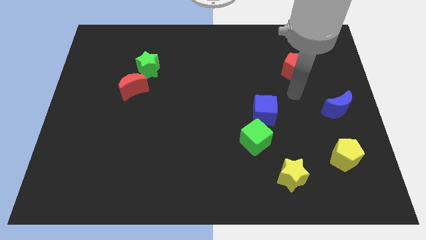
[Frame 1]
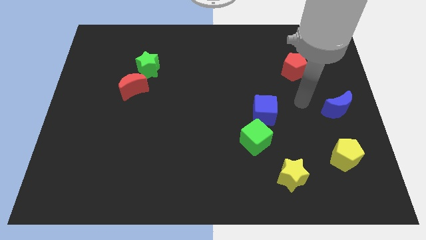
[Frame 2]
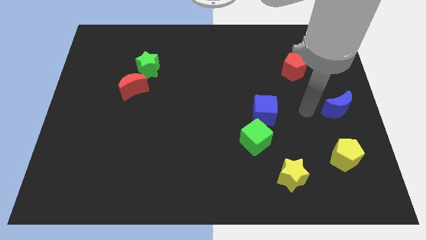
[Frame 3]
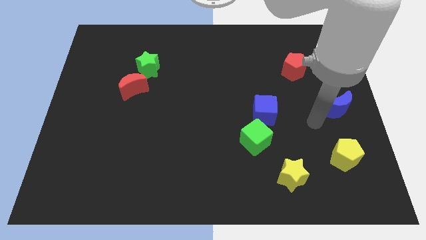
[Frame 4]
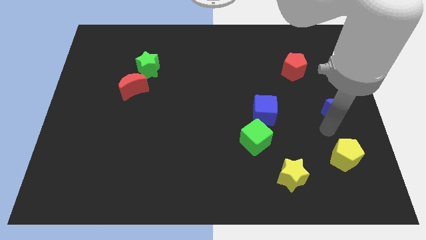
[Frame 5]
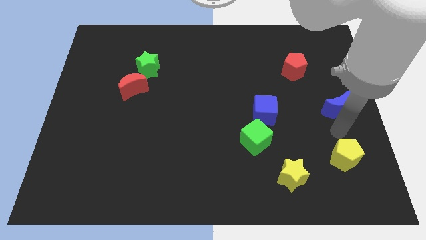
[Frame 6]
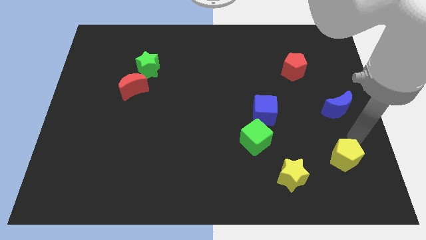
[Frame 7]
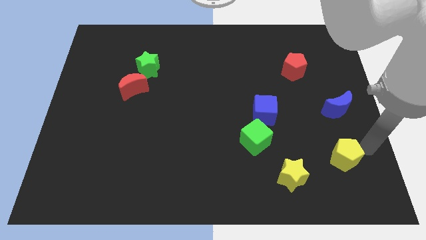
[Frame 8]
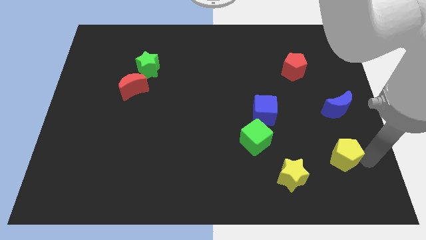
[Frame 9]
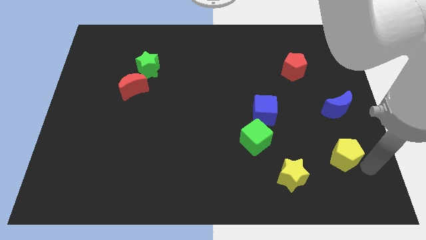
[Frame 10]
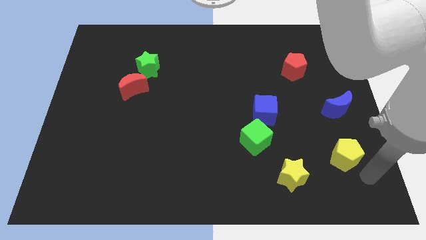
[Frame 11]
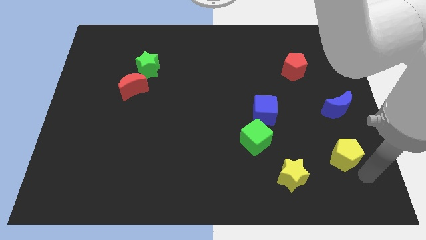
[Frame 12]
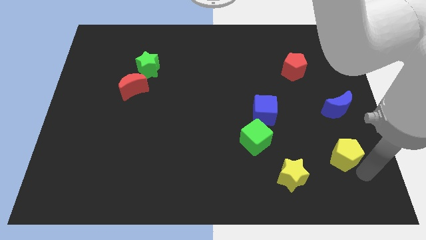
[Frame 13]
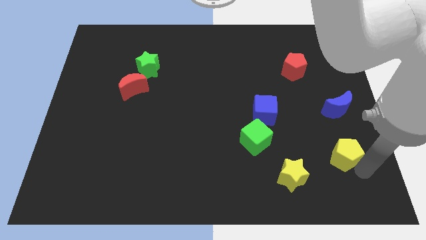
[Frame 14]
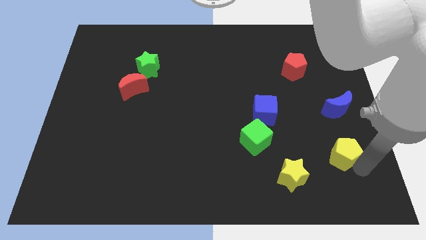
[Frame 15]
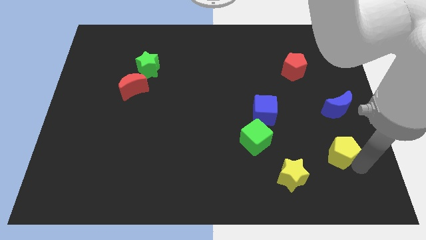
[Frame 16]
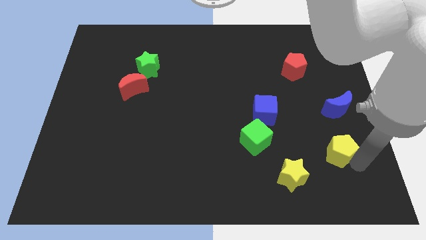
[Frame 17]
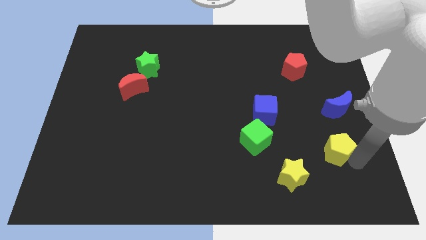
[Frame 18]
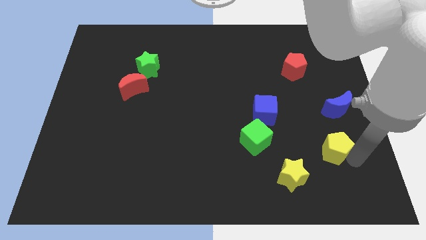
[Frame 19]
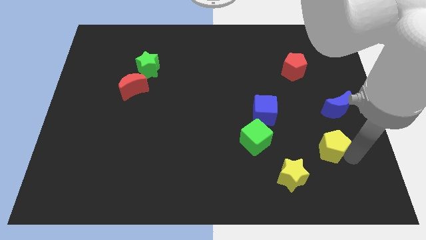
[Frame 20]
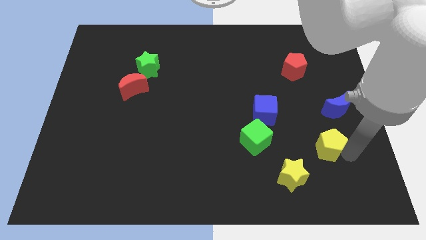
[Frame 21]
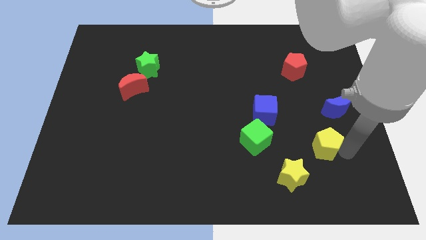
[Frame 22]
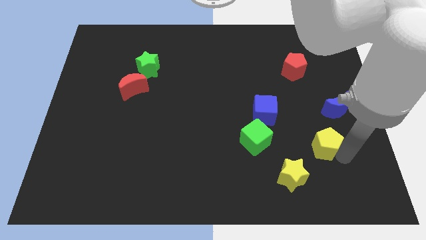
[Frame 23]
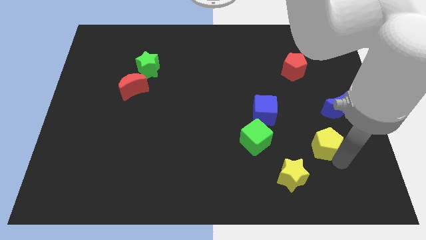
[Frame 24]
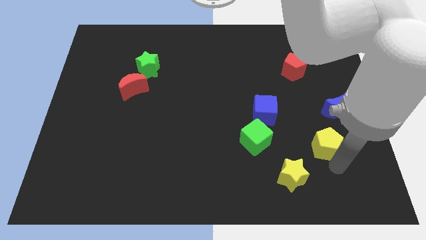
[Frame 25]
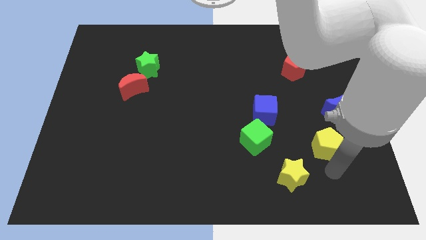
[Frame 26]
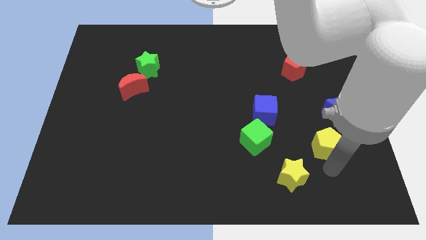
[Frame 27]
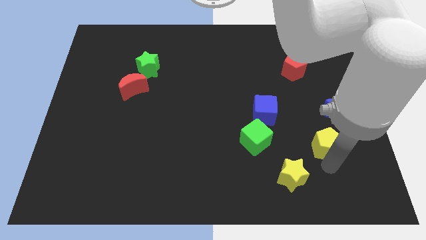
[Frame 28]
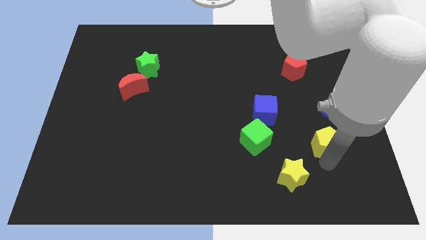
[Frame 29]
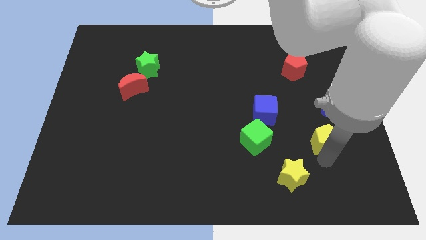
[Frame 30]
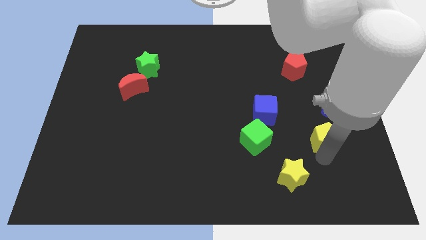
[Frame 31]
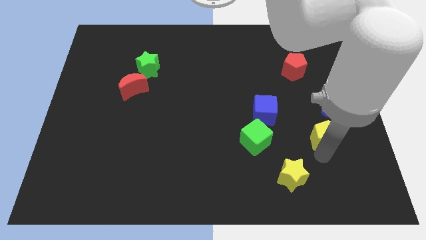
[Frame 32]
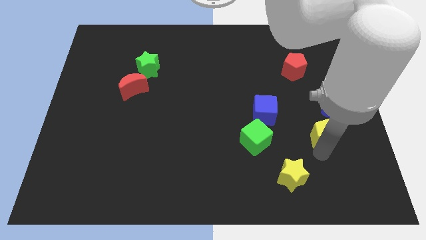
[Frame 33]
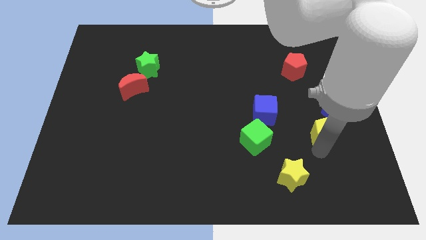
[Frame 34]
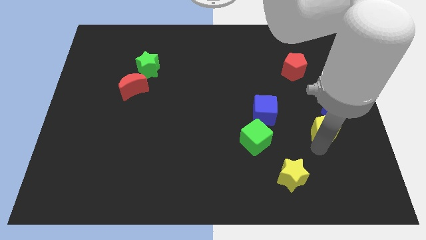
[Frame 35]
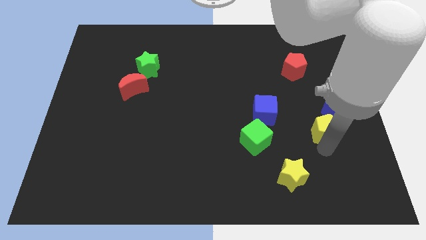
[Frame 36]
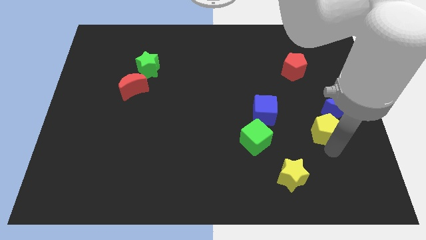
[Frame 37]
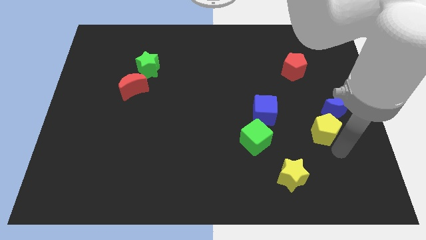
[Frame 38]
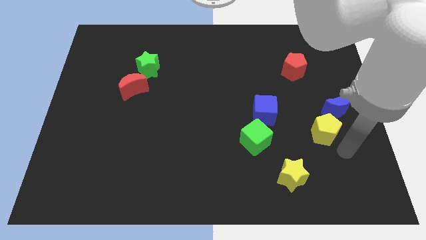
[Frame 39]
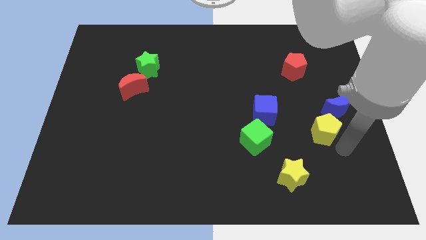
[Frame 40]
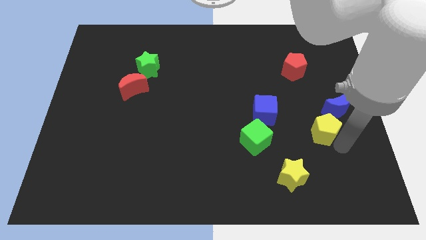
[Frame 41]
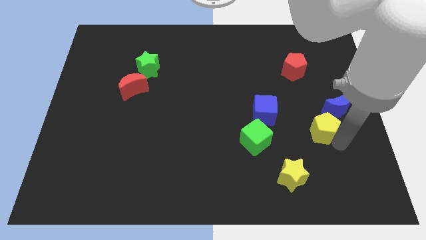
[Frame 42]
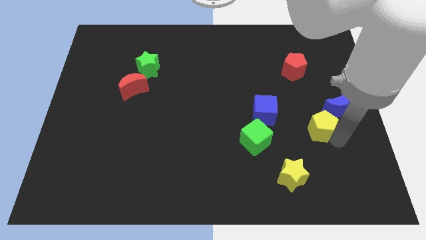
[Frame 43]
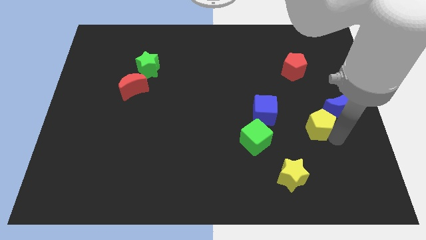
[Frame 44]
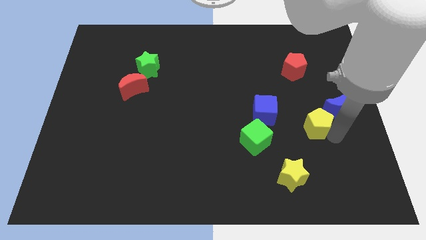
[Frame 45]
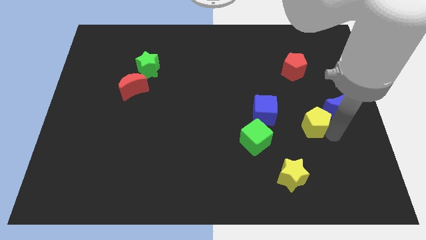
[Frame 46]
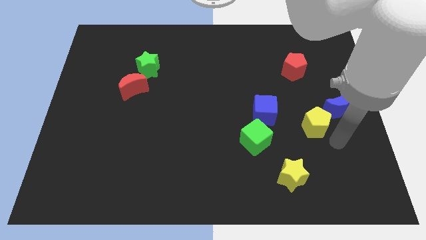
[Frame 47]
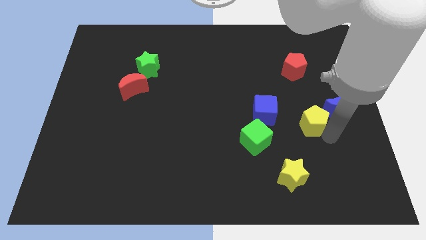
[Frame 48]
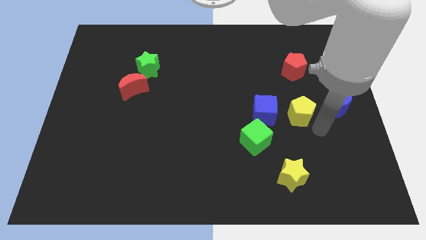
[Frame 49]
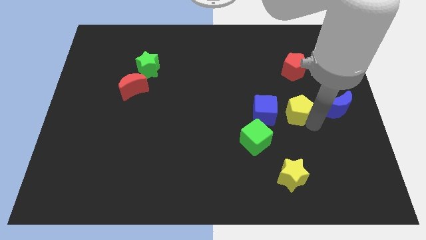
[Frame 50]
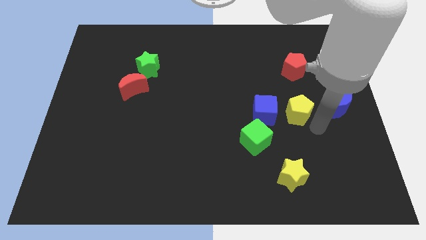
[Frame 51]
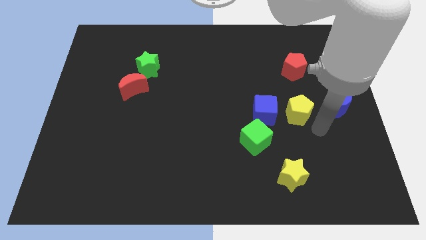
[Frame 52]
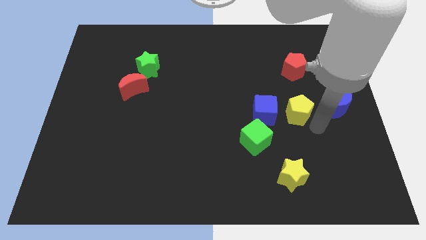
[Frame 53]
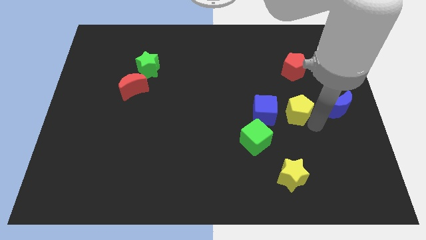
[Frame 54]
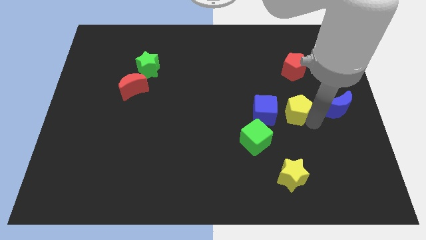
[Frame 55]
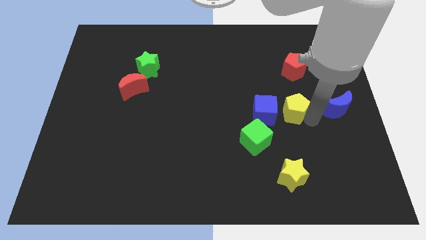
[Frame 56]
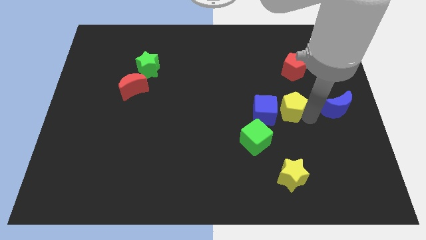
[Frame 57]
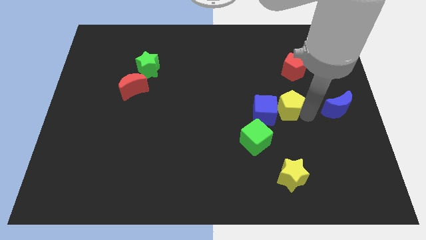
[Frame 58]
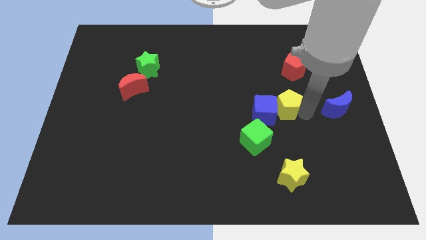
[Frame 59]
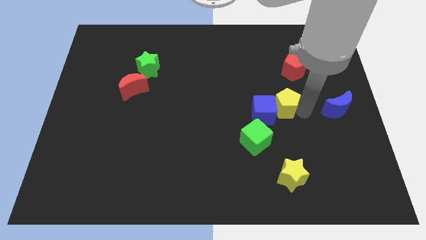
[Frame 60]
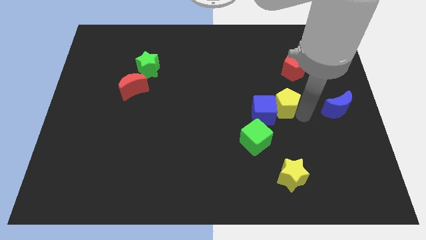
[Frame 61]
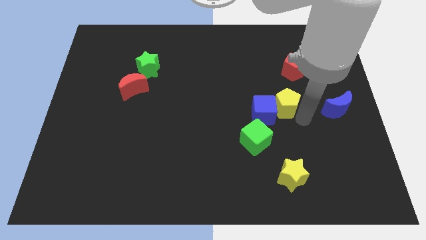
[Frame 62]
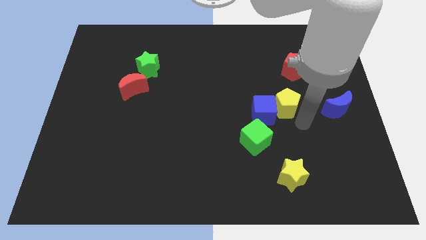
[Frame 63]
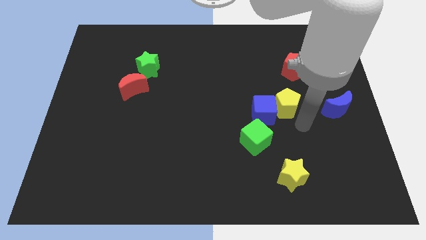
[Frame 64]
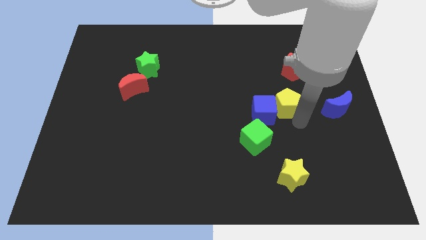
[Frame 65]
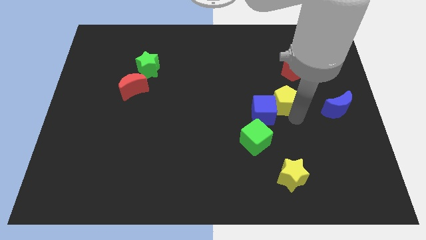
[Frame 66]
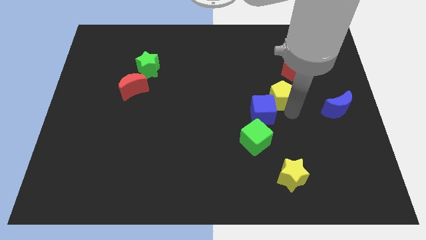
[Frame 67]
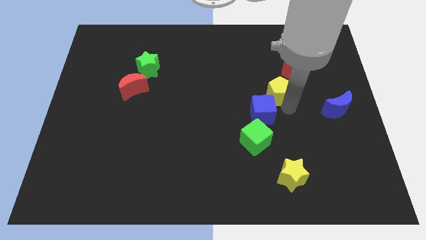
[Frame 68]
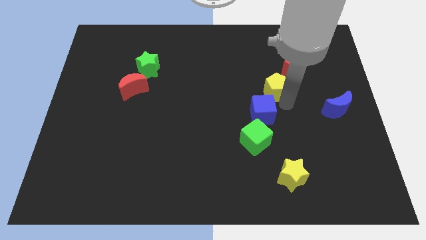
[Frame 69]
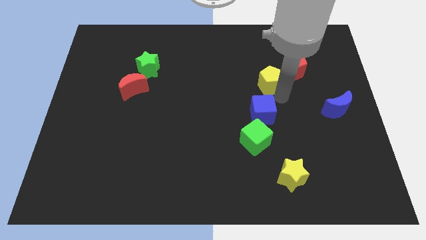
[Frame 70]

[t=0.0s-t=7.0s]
move the yellow pentagon left of the red pentagon

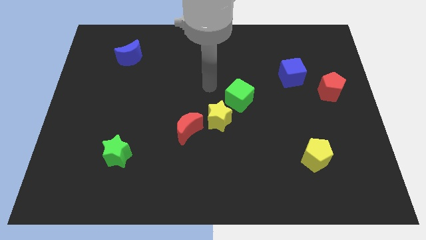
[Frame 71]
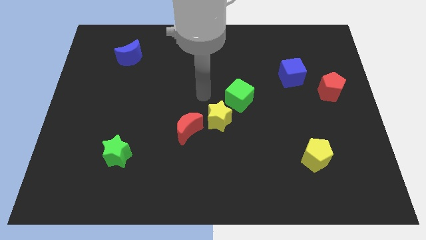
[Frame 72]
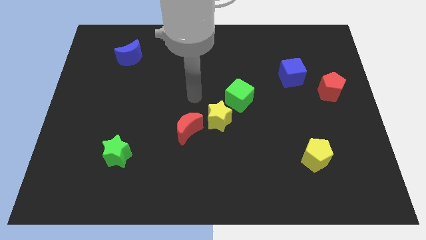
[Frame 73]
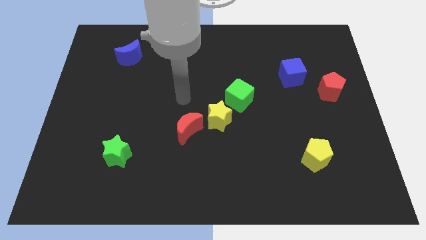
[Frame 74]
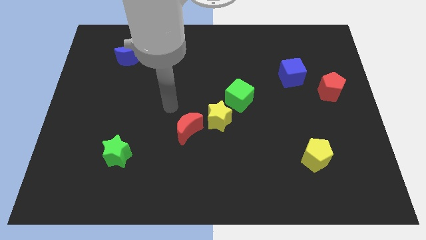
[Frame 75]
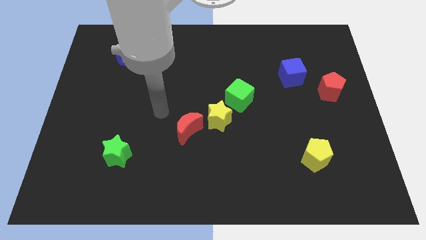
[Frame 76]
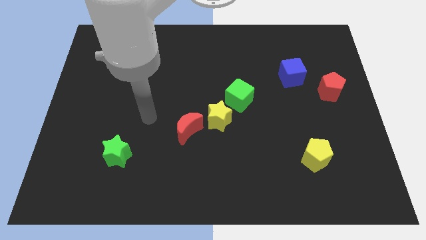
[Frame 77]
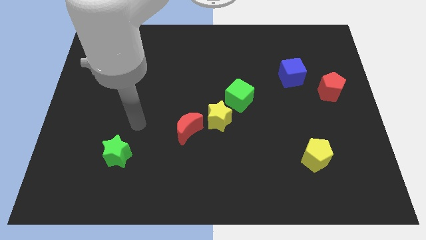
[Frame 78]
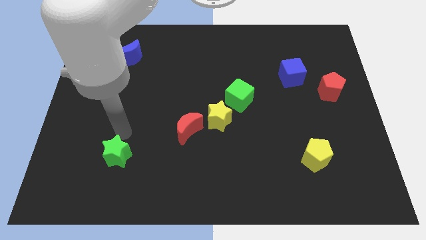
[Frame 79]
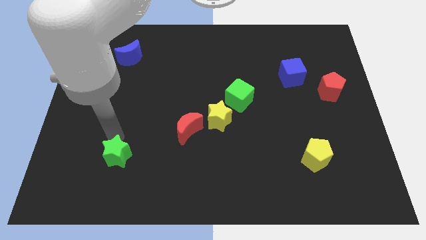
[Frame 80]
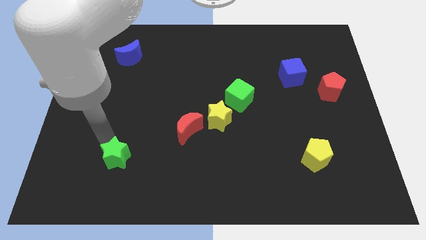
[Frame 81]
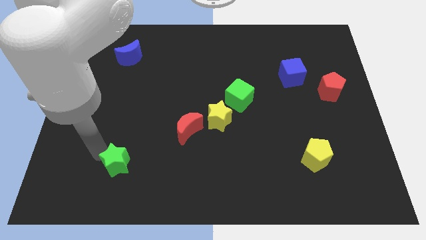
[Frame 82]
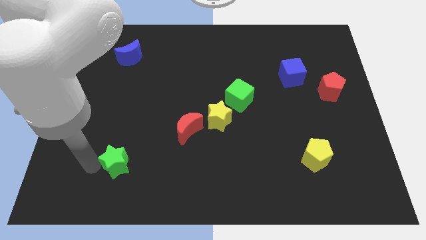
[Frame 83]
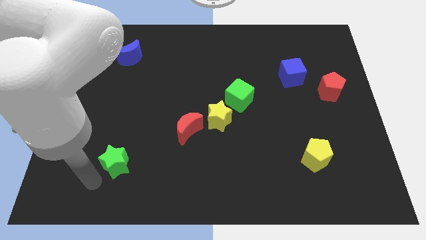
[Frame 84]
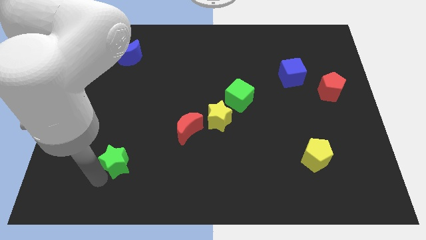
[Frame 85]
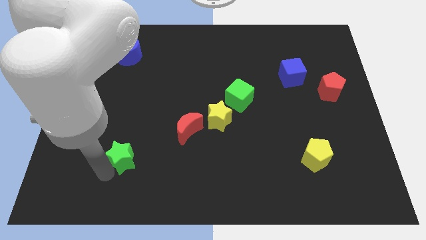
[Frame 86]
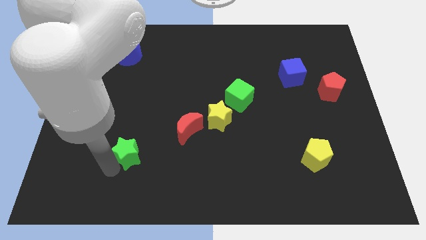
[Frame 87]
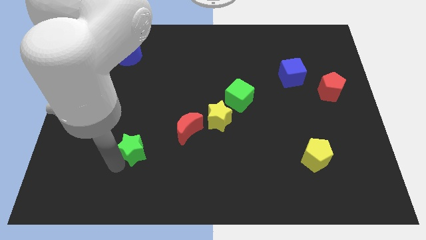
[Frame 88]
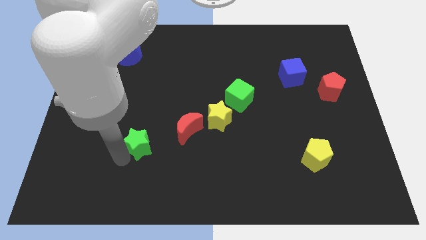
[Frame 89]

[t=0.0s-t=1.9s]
move the green star diagonally down and to the left of the red moon
